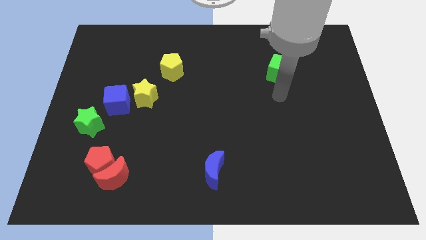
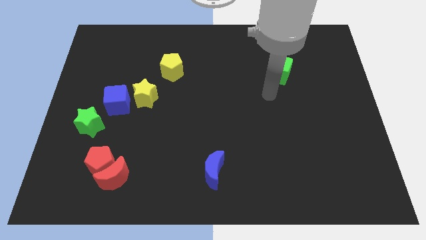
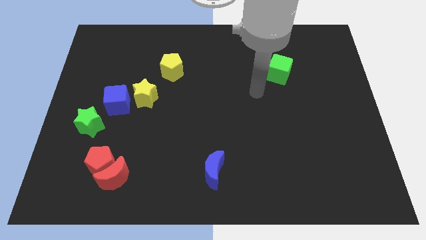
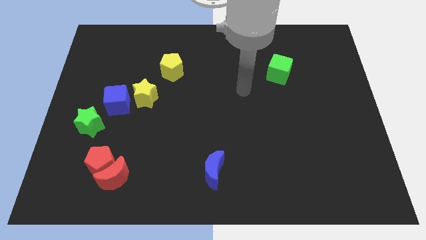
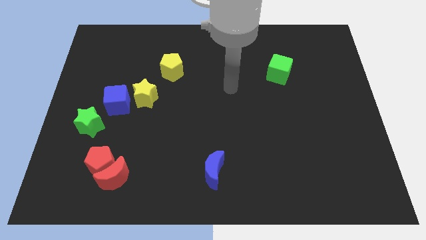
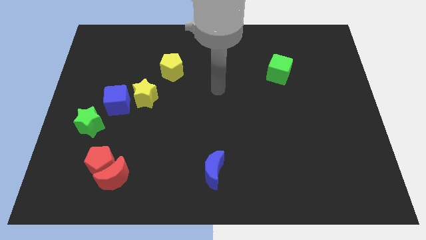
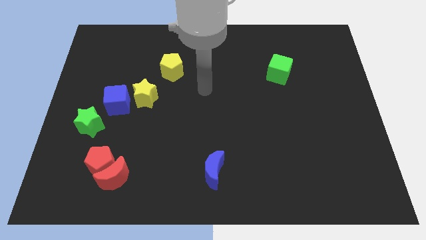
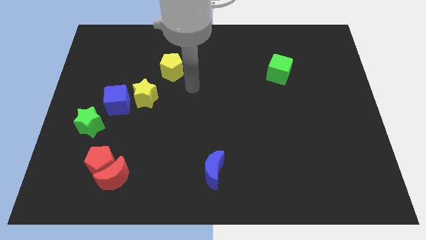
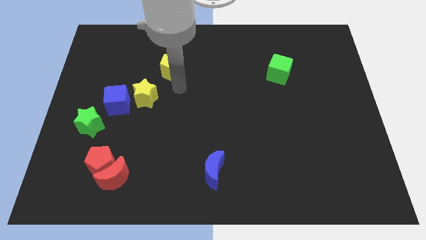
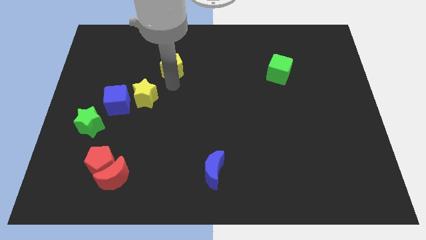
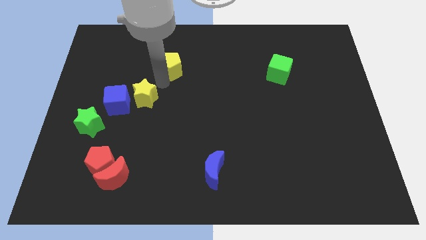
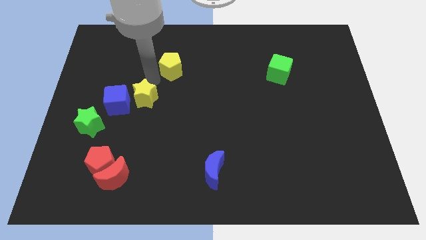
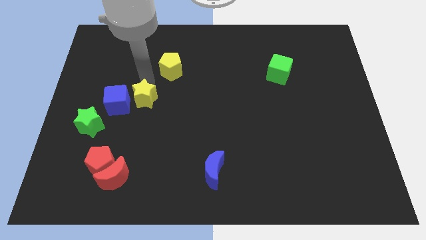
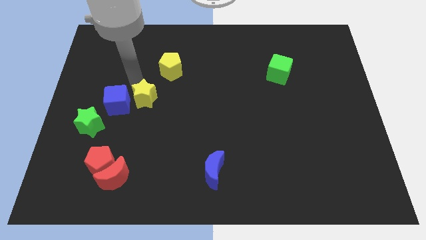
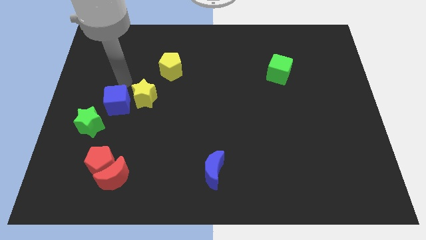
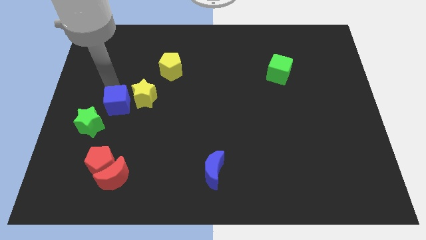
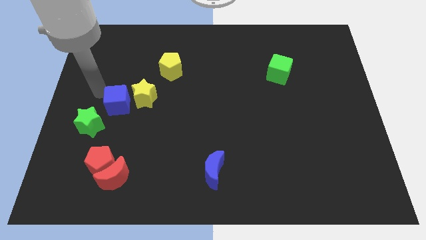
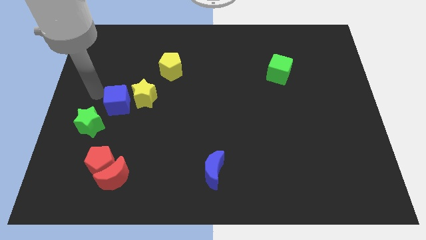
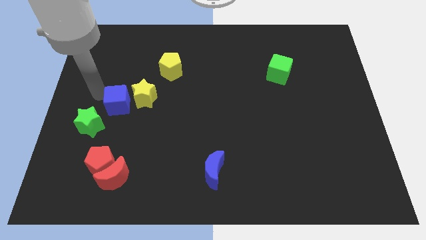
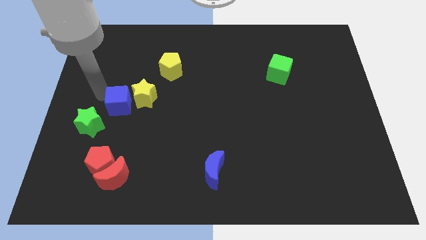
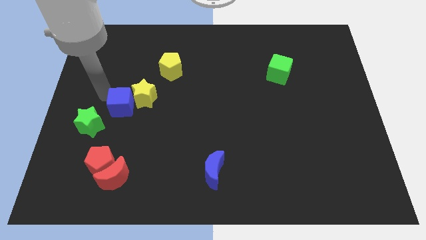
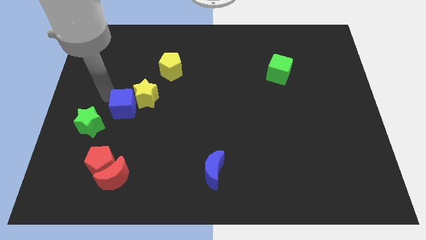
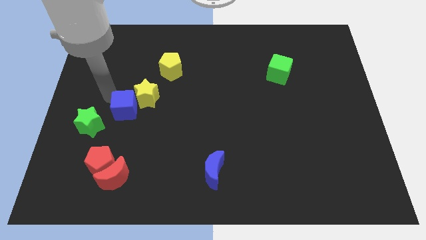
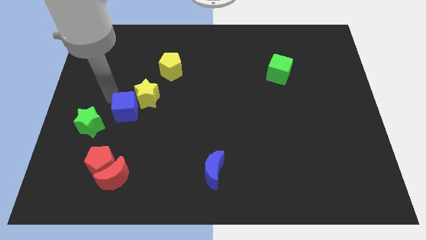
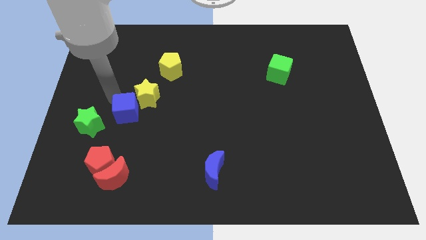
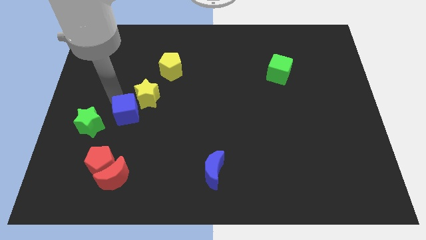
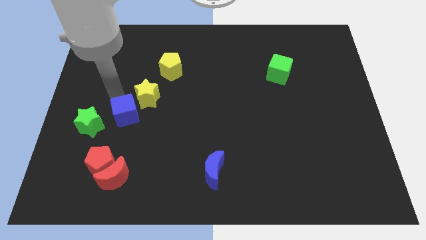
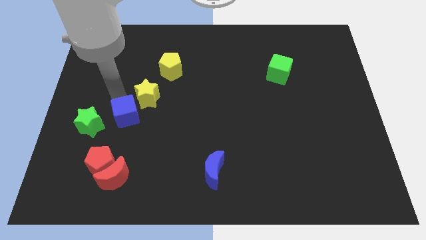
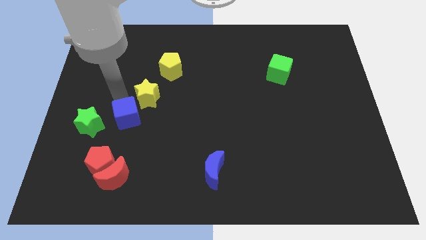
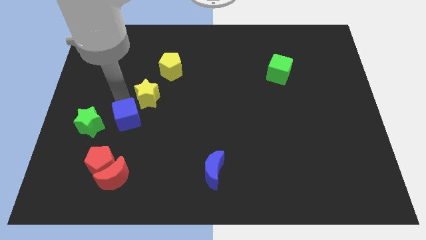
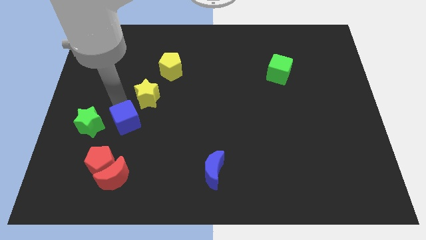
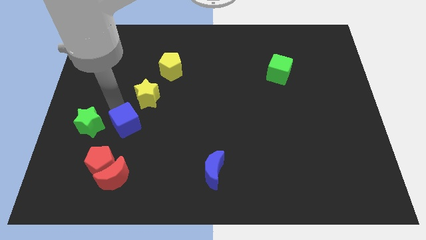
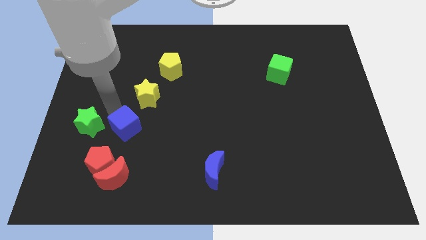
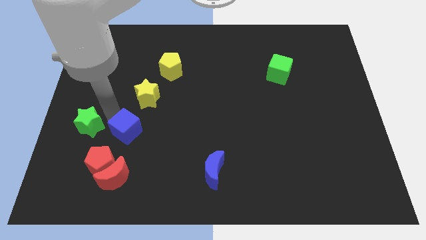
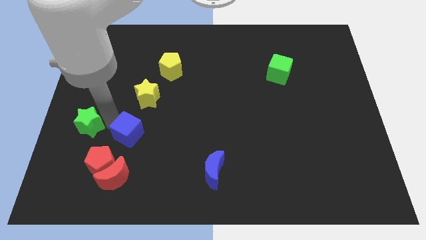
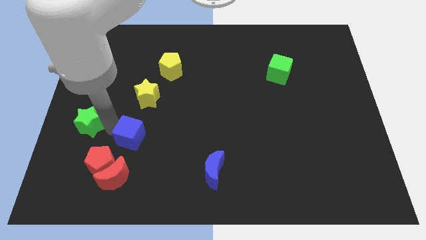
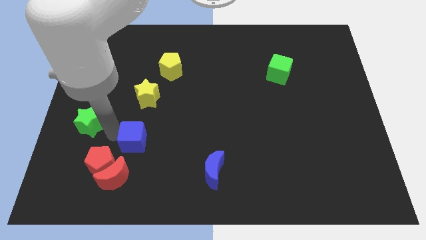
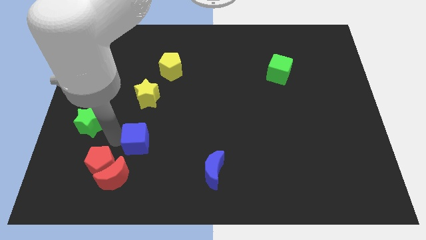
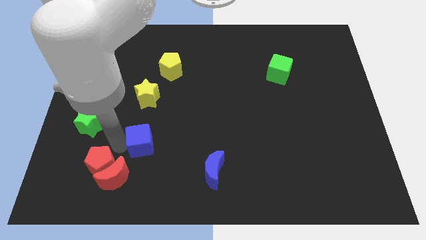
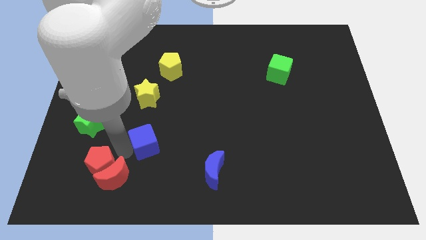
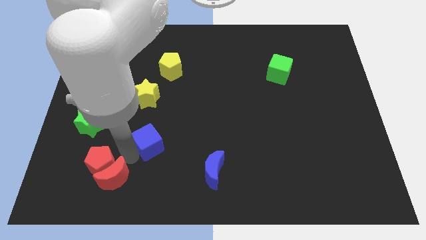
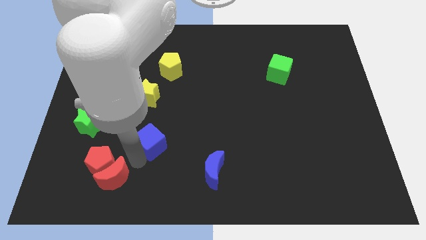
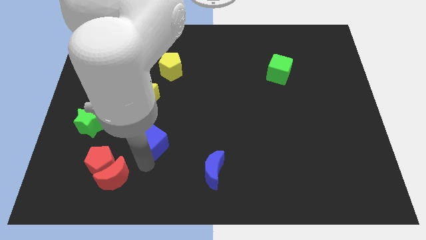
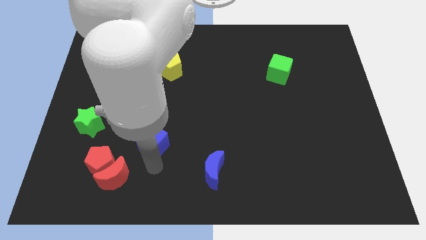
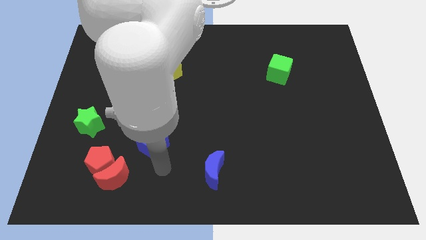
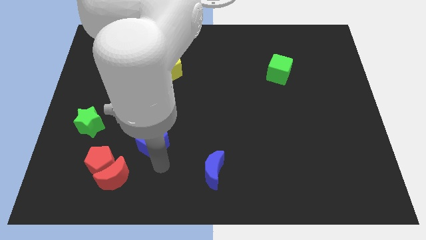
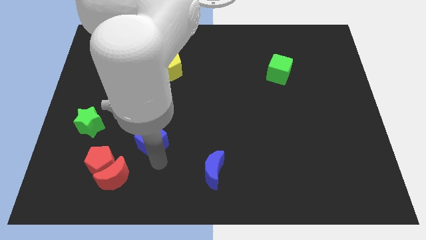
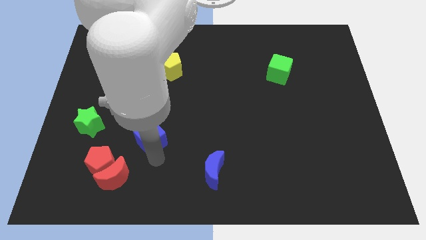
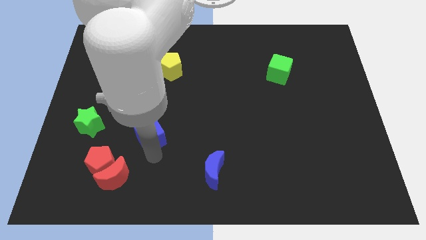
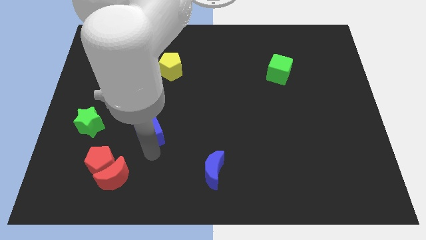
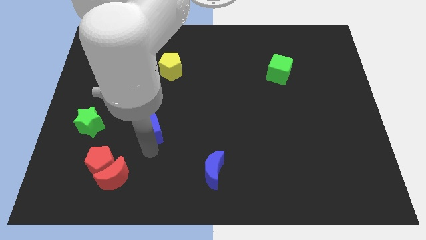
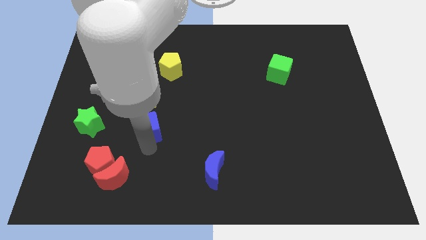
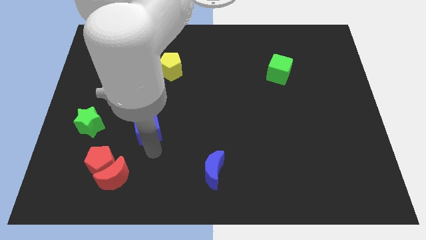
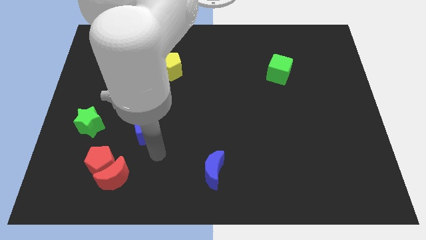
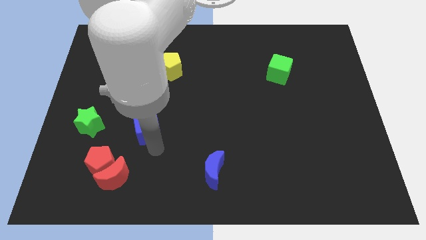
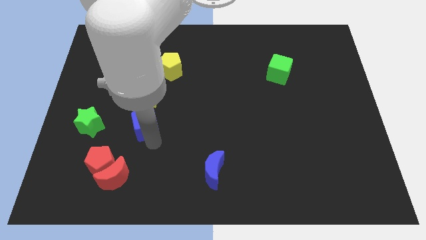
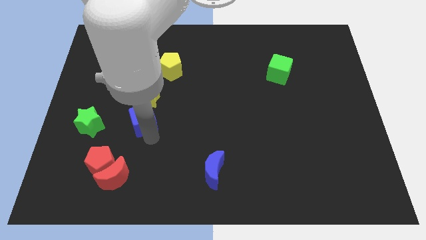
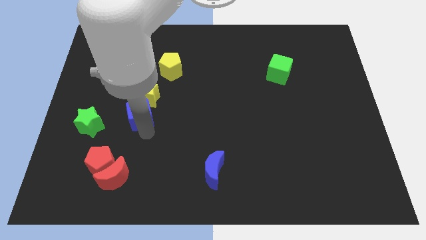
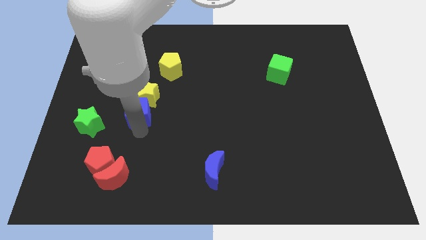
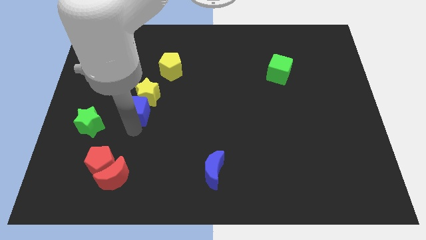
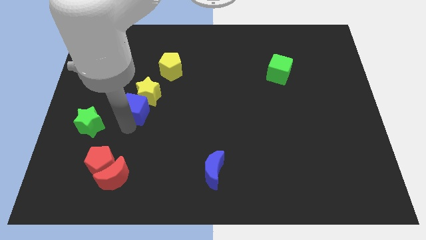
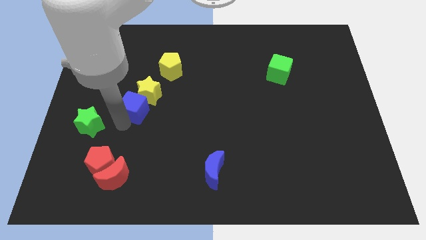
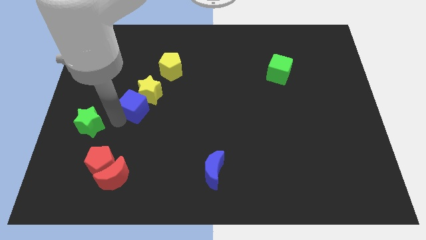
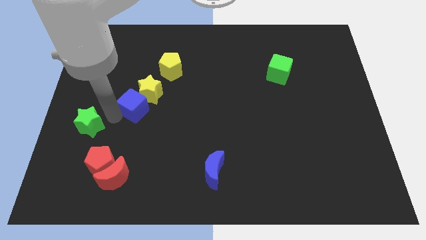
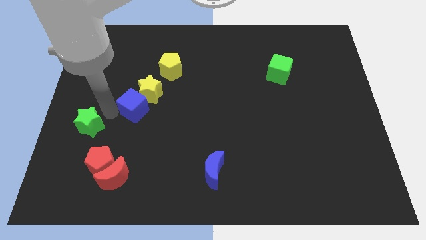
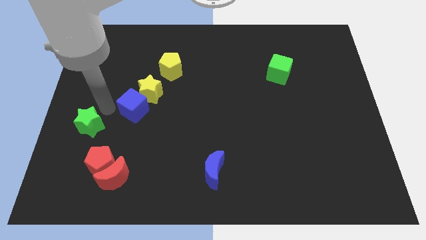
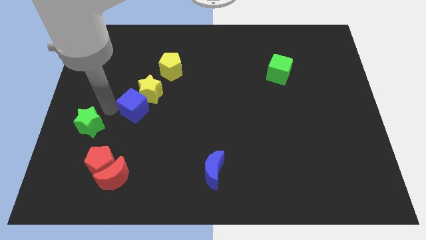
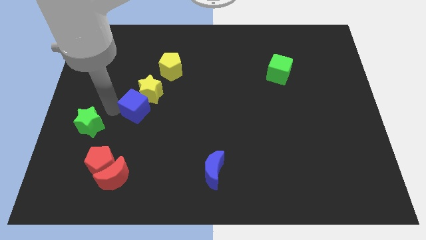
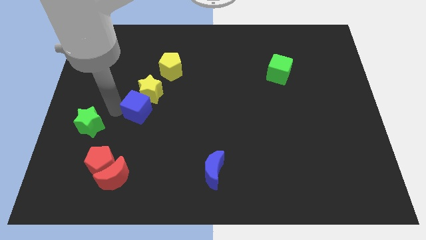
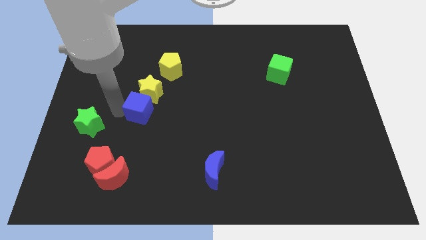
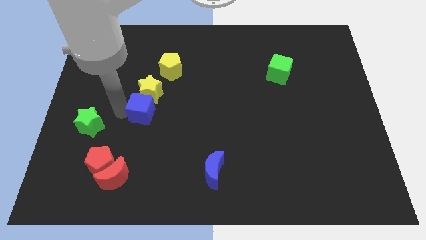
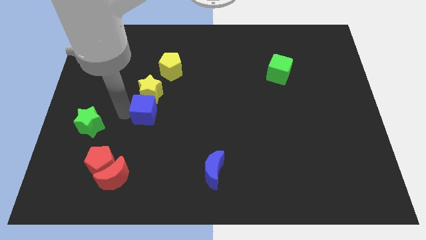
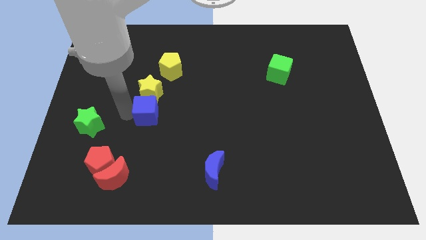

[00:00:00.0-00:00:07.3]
move the blue cube a bit right

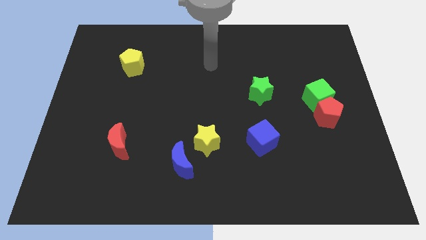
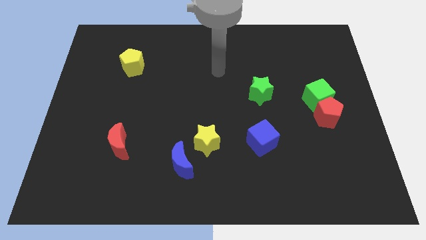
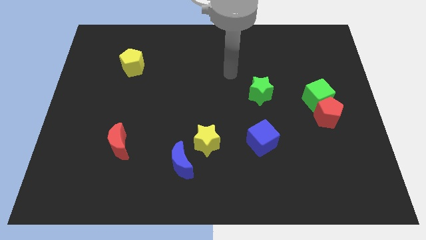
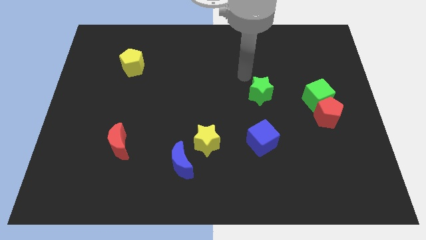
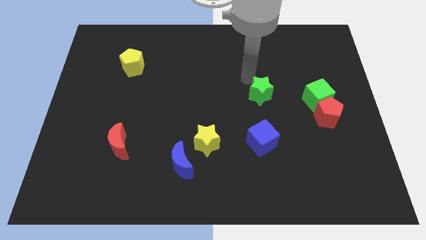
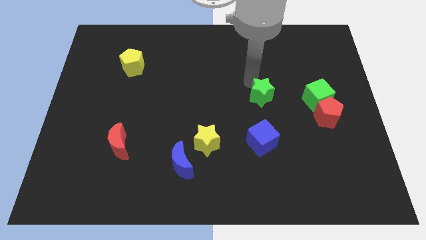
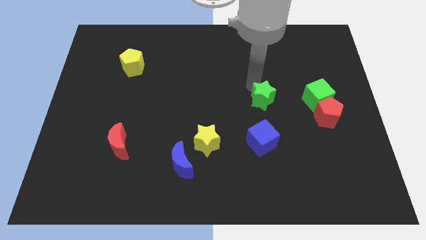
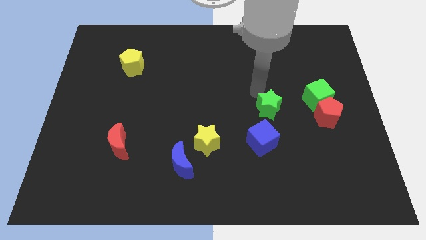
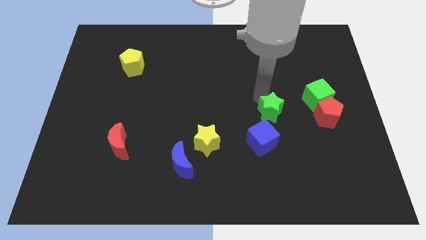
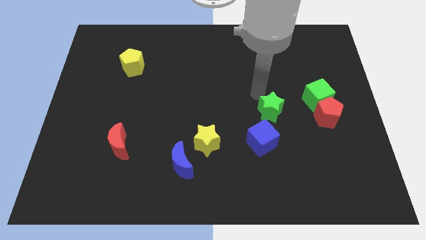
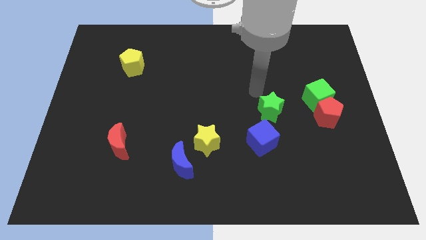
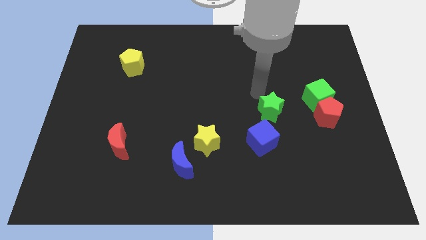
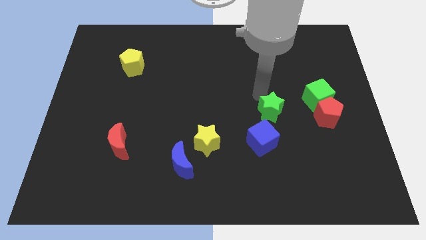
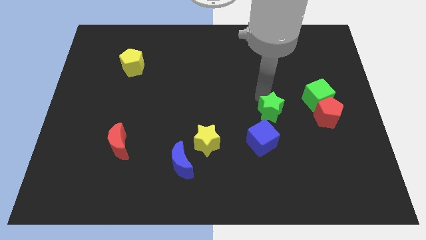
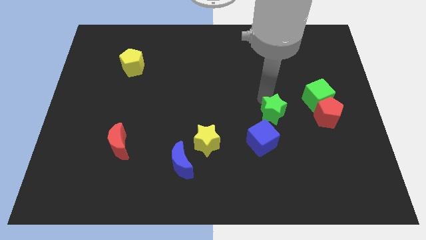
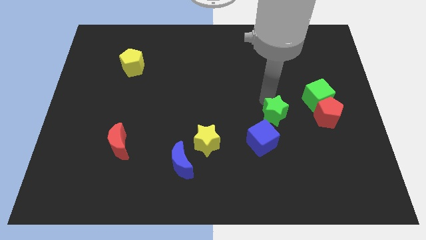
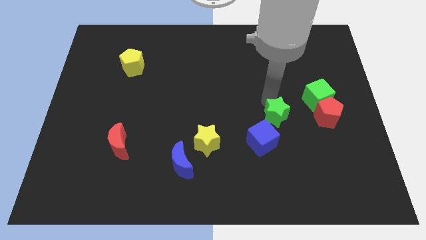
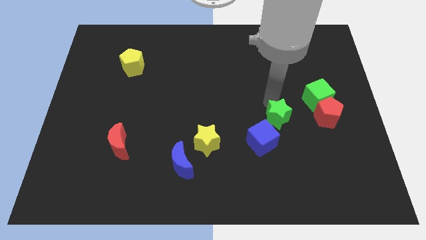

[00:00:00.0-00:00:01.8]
slightly move the green star down
